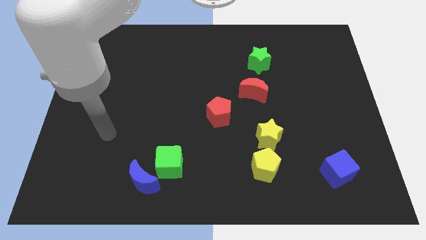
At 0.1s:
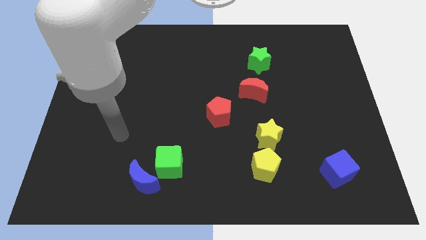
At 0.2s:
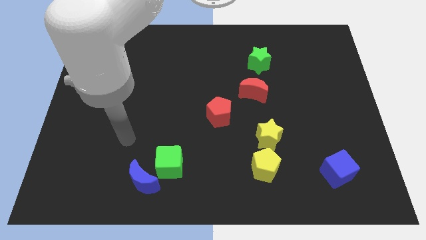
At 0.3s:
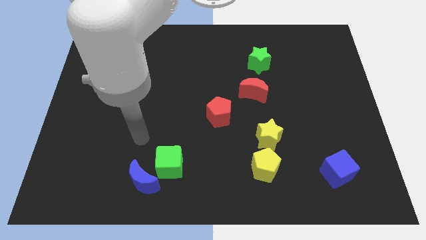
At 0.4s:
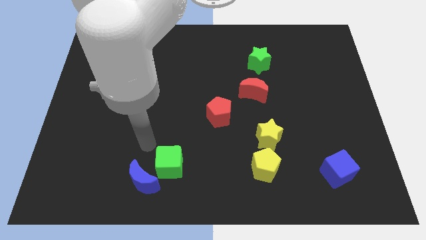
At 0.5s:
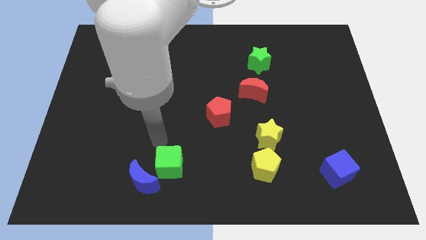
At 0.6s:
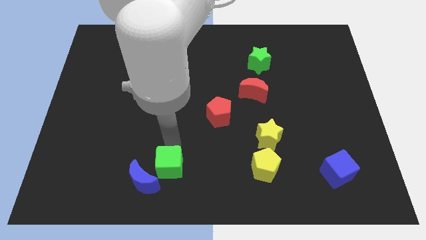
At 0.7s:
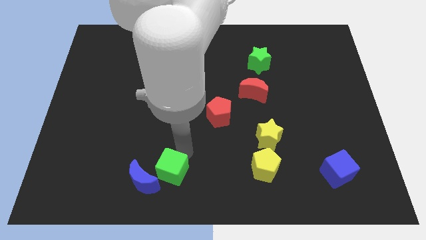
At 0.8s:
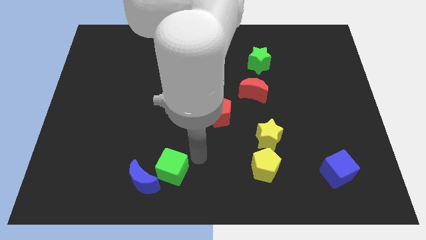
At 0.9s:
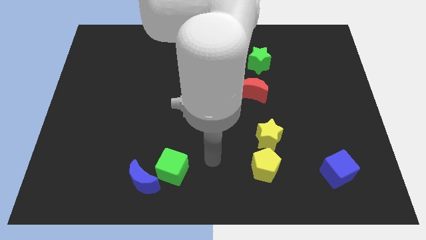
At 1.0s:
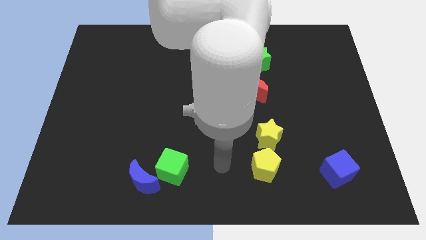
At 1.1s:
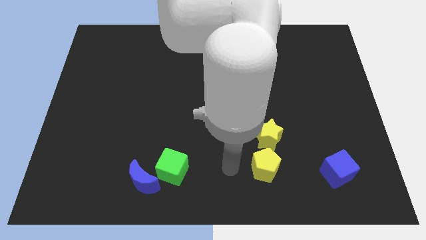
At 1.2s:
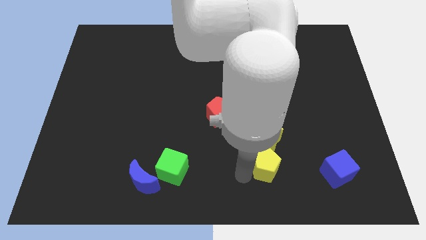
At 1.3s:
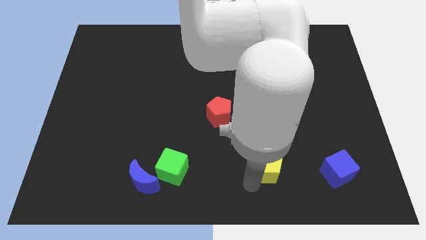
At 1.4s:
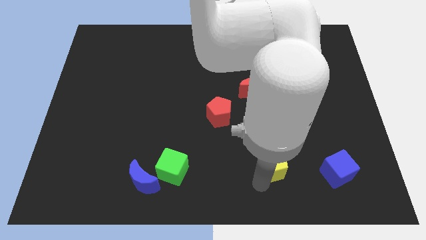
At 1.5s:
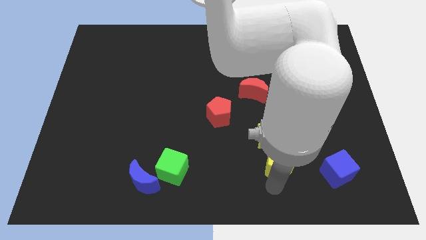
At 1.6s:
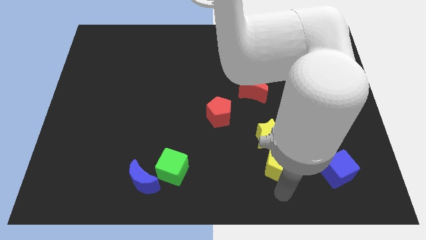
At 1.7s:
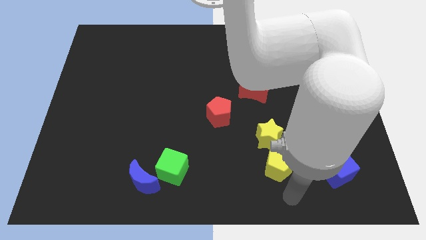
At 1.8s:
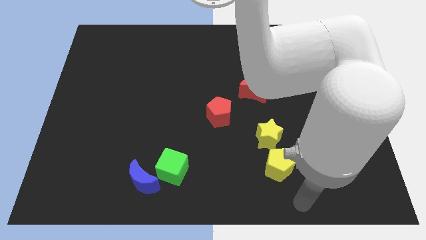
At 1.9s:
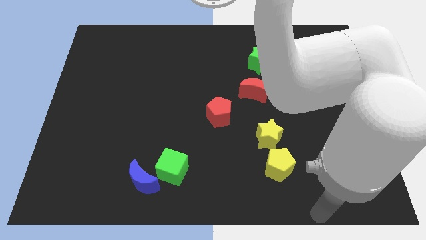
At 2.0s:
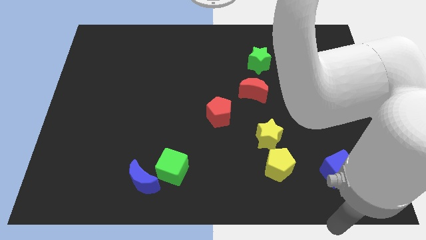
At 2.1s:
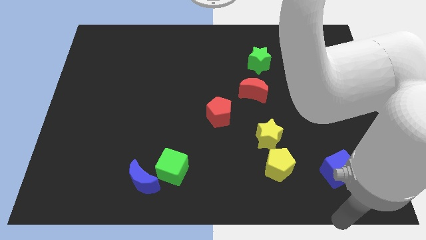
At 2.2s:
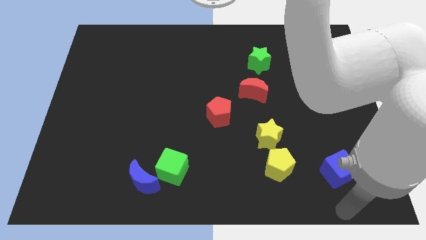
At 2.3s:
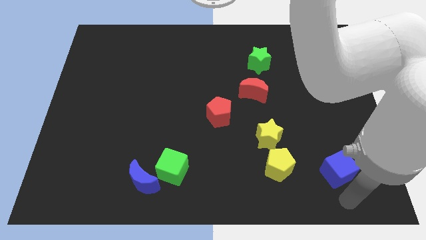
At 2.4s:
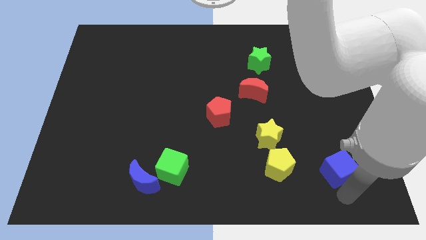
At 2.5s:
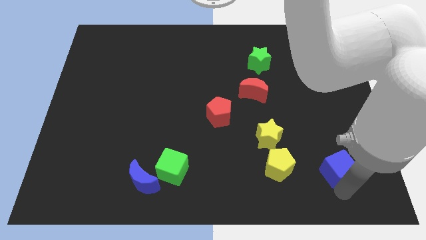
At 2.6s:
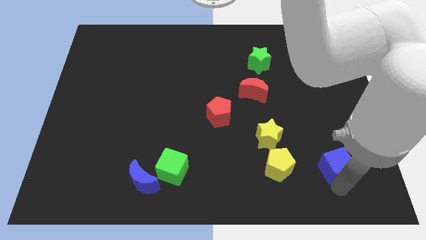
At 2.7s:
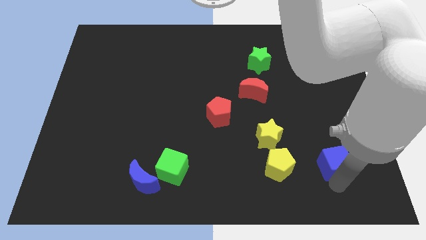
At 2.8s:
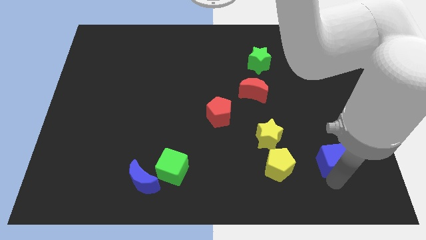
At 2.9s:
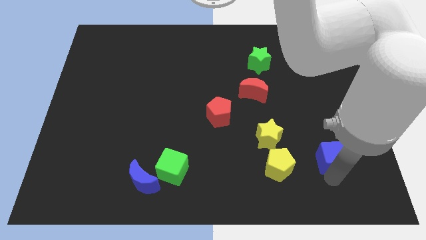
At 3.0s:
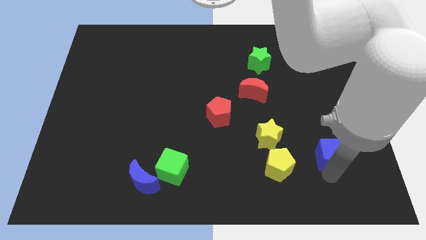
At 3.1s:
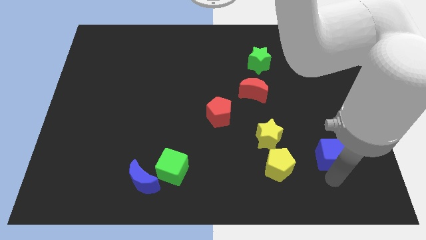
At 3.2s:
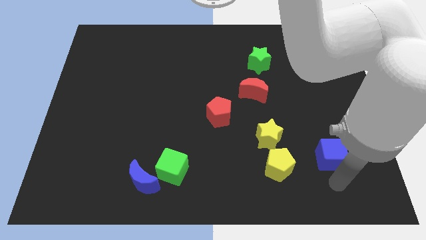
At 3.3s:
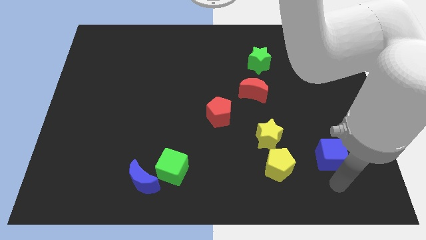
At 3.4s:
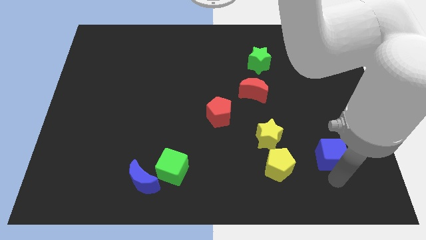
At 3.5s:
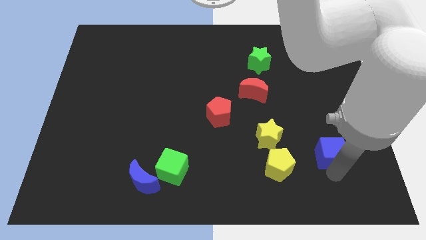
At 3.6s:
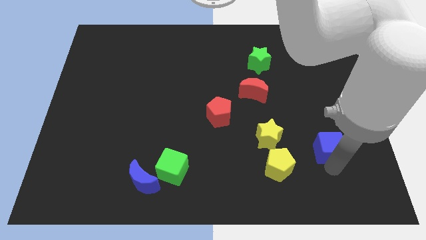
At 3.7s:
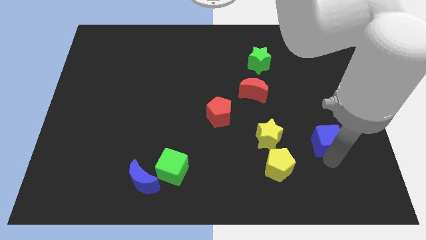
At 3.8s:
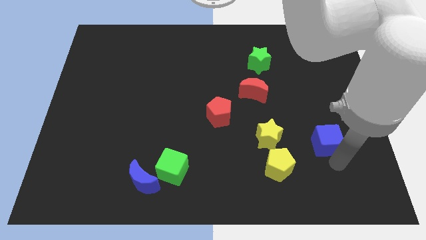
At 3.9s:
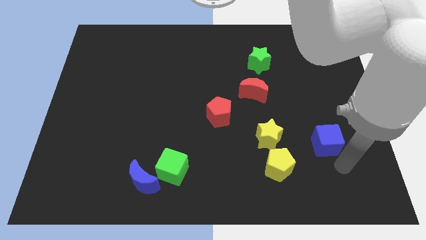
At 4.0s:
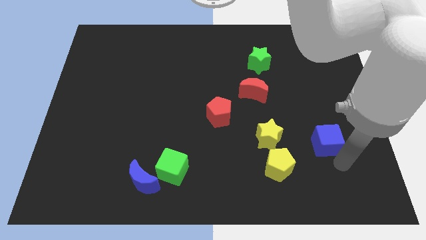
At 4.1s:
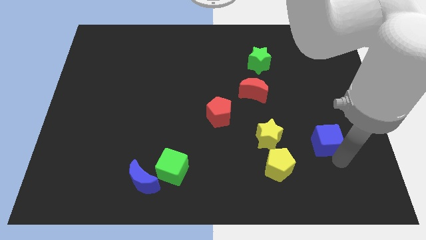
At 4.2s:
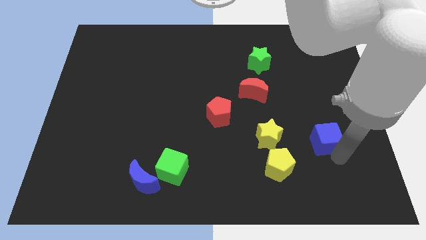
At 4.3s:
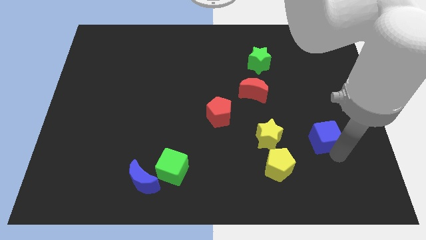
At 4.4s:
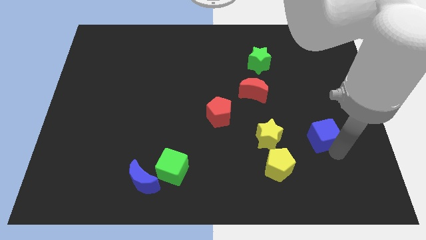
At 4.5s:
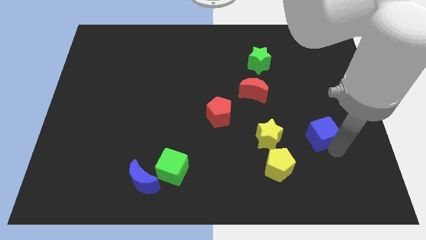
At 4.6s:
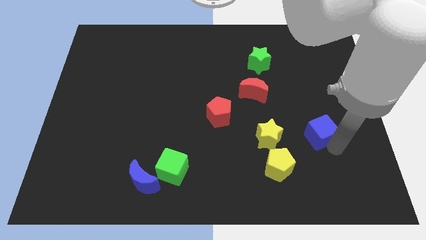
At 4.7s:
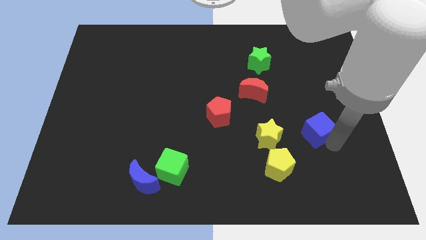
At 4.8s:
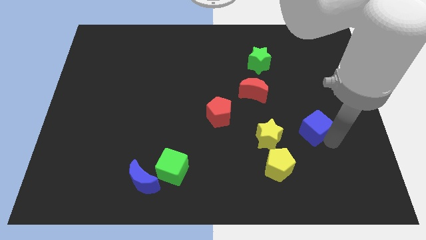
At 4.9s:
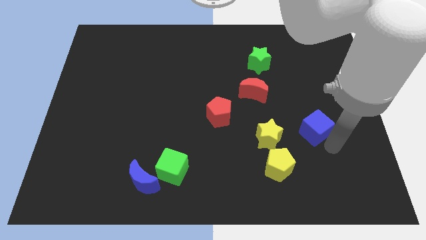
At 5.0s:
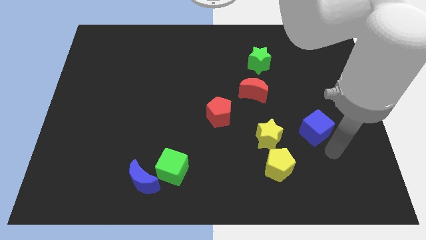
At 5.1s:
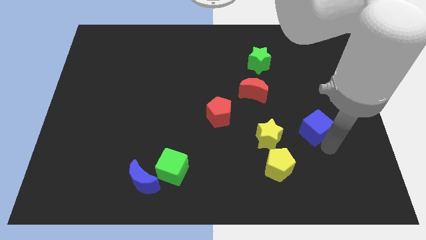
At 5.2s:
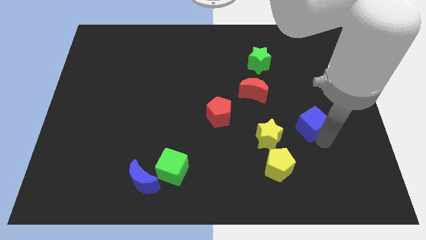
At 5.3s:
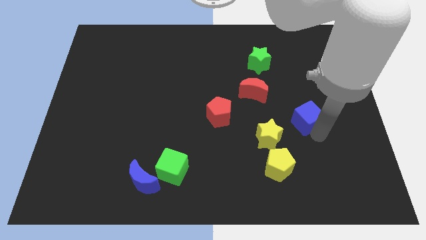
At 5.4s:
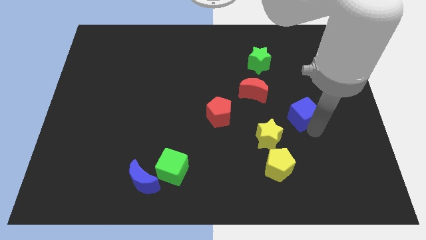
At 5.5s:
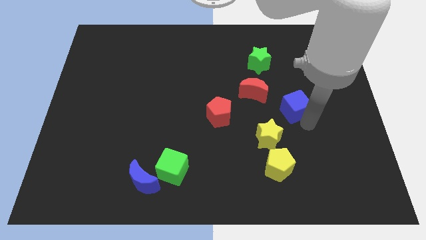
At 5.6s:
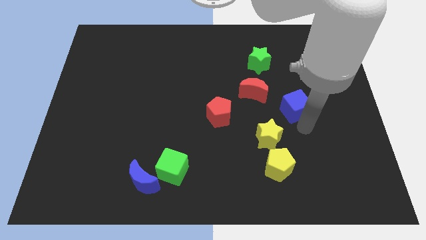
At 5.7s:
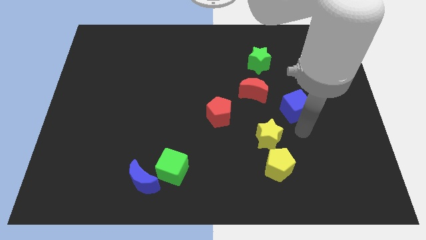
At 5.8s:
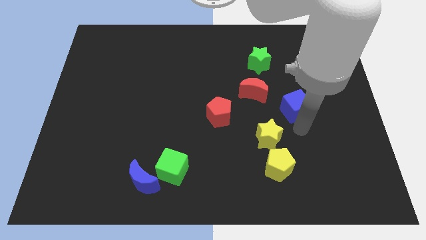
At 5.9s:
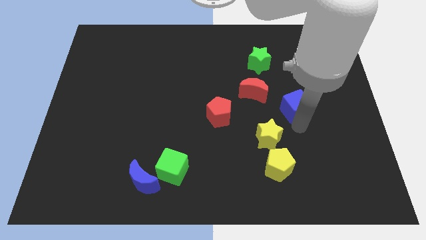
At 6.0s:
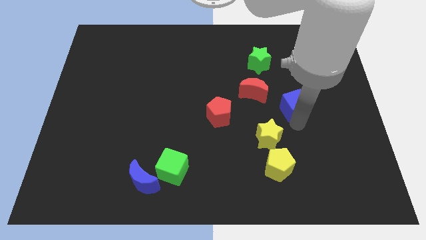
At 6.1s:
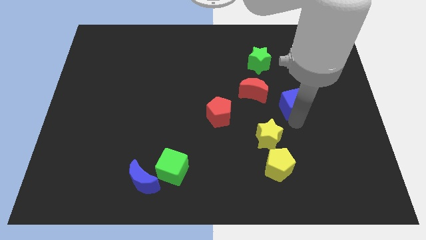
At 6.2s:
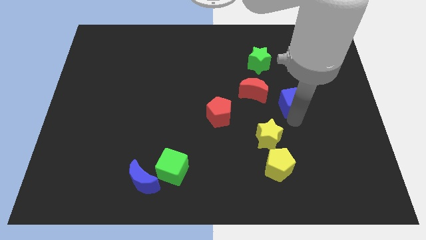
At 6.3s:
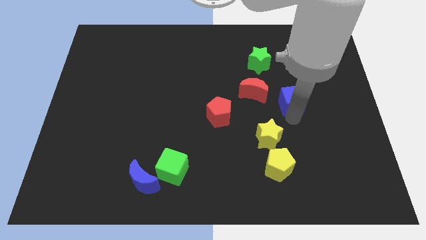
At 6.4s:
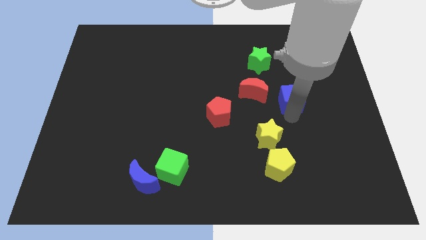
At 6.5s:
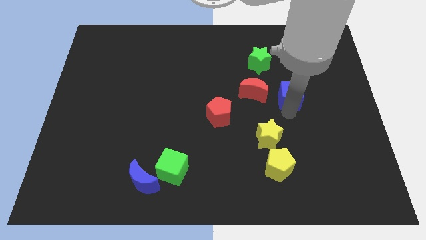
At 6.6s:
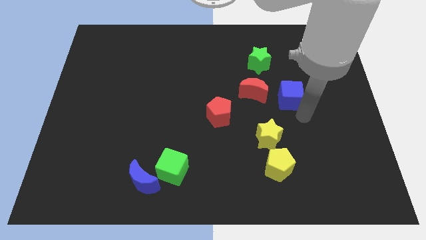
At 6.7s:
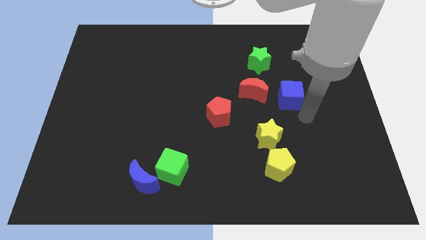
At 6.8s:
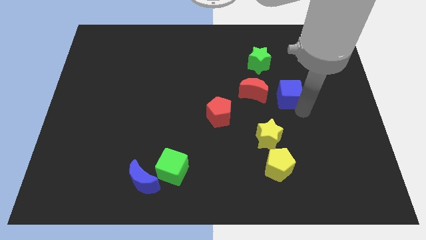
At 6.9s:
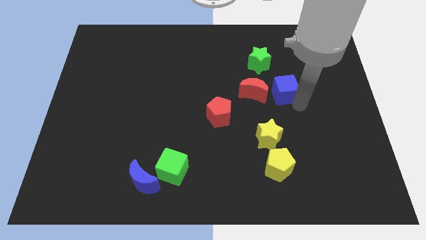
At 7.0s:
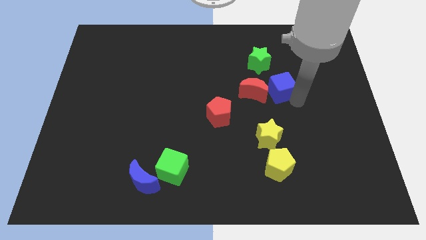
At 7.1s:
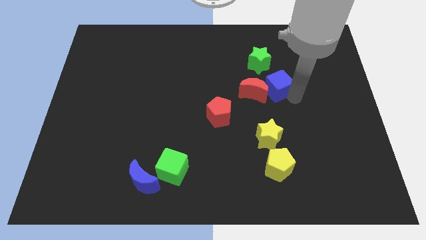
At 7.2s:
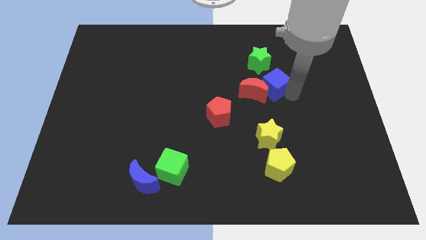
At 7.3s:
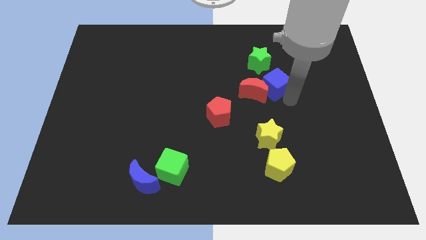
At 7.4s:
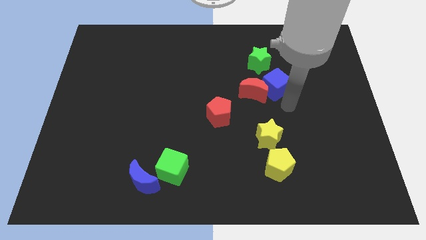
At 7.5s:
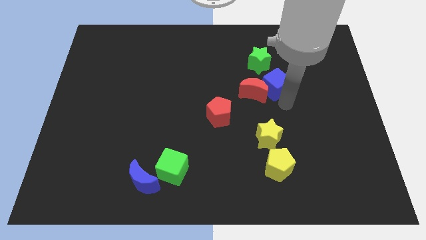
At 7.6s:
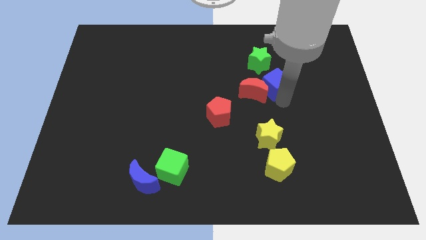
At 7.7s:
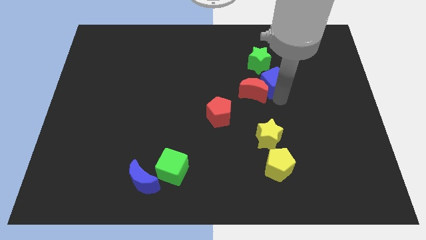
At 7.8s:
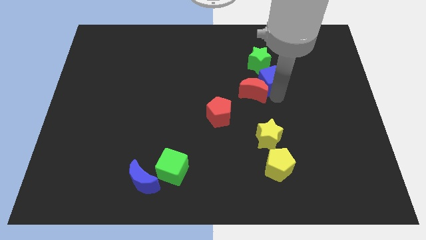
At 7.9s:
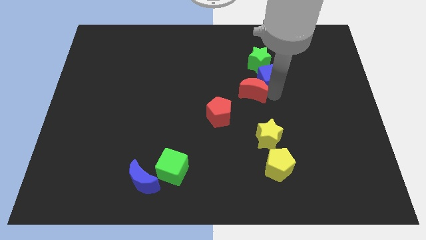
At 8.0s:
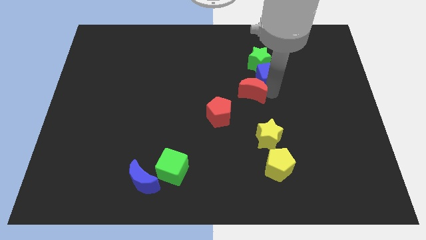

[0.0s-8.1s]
move the blue cube close to the green star
